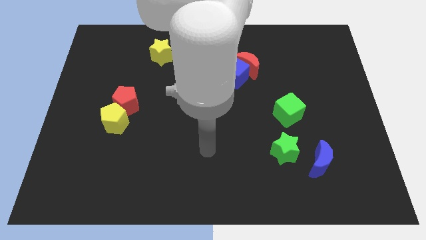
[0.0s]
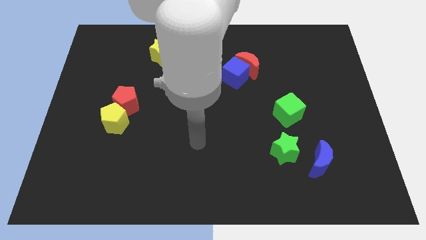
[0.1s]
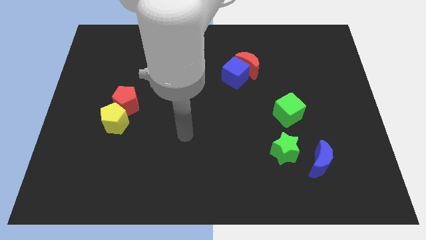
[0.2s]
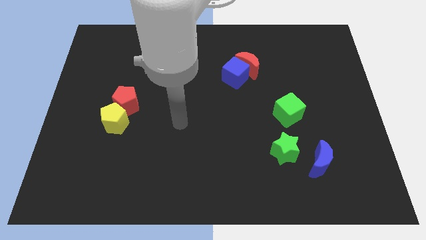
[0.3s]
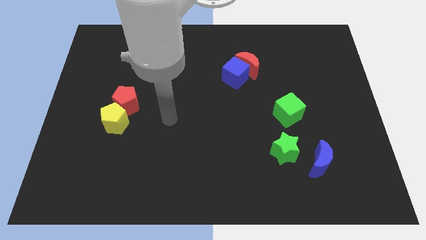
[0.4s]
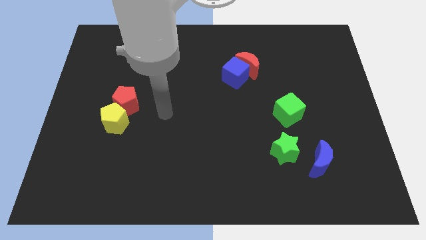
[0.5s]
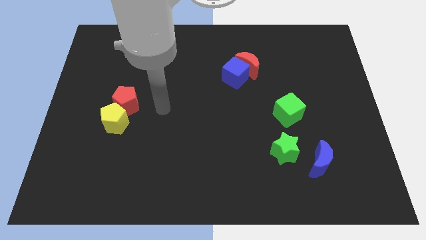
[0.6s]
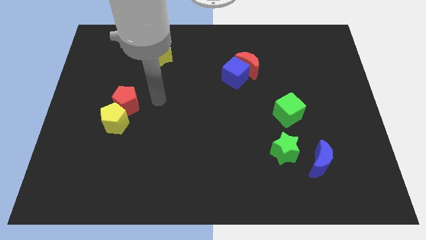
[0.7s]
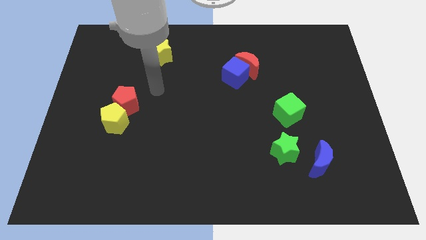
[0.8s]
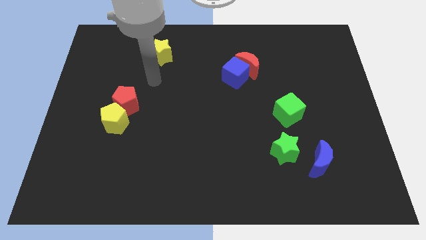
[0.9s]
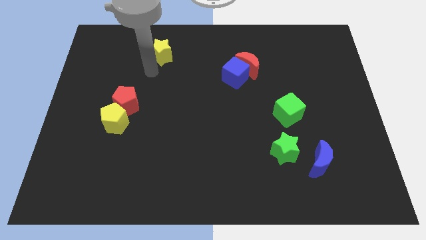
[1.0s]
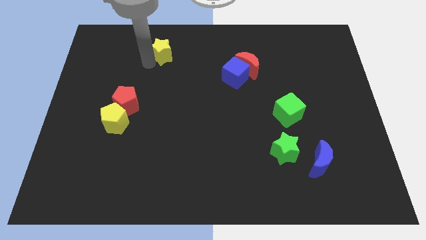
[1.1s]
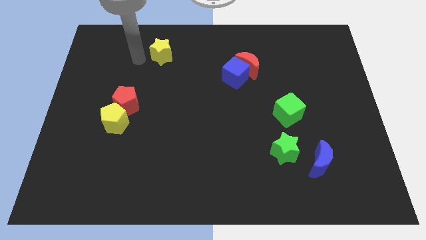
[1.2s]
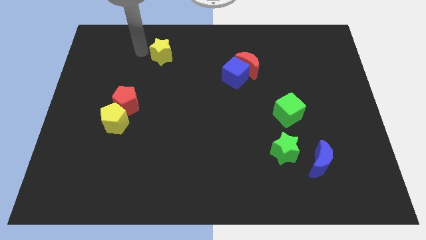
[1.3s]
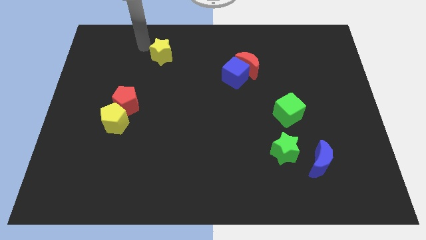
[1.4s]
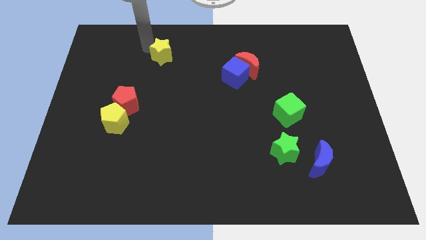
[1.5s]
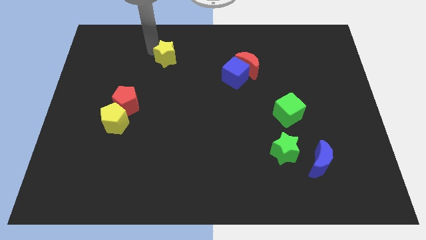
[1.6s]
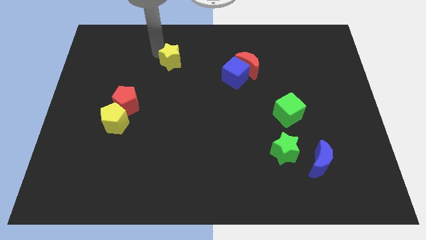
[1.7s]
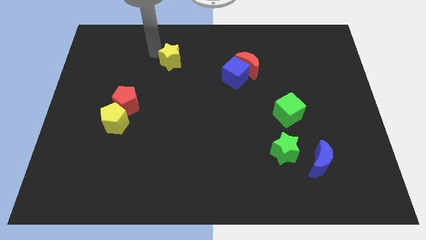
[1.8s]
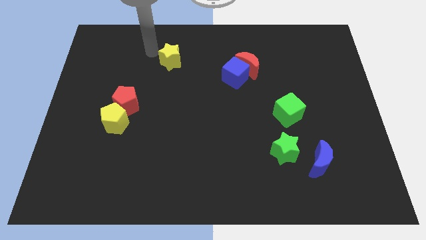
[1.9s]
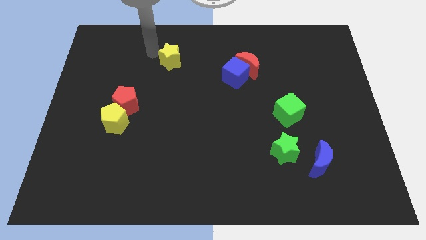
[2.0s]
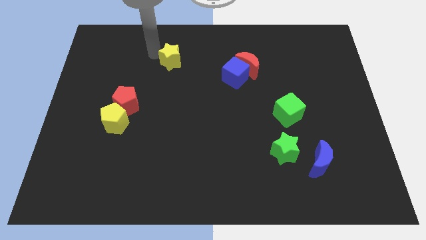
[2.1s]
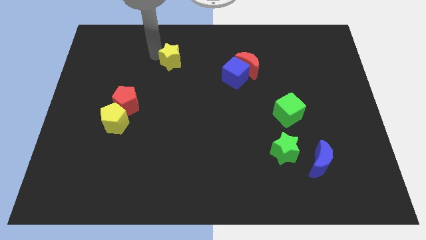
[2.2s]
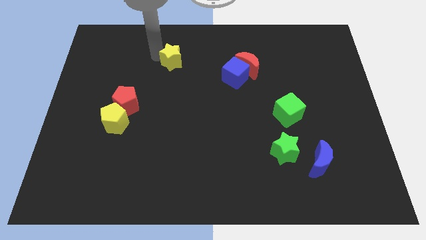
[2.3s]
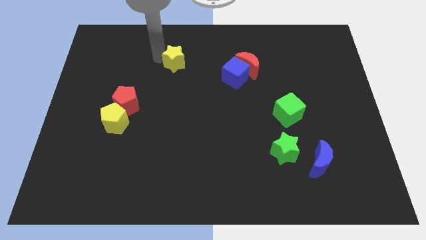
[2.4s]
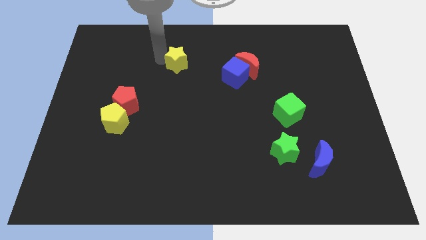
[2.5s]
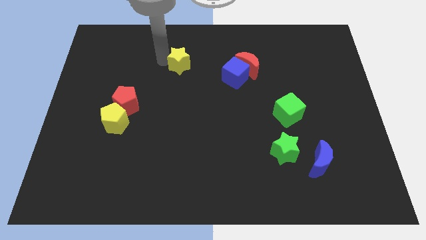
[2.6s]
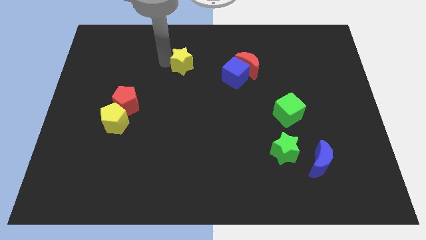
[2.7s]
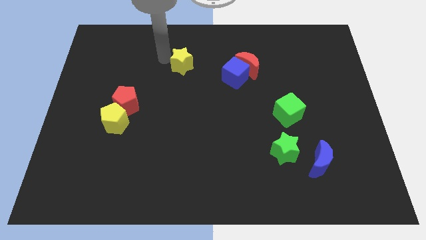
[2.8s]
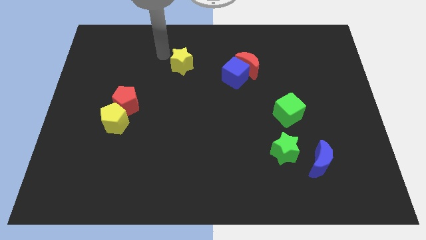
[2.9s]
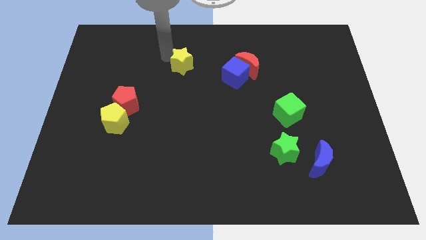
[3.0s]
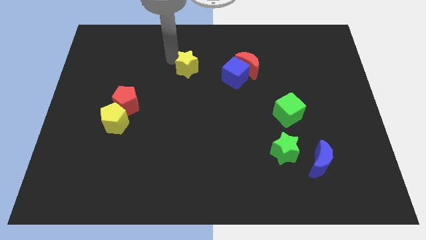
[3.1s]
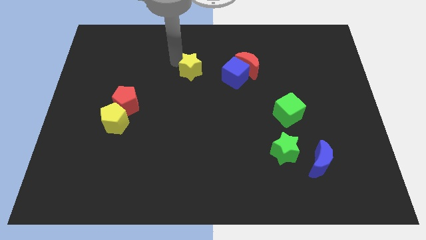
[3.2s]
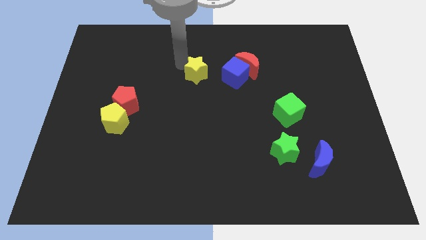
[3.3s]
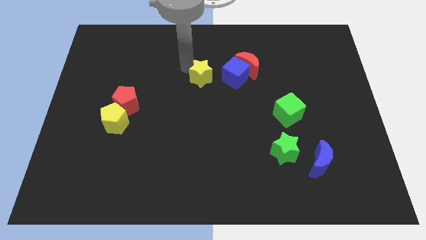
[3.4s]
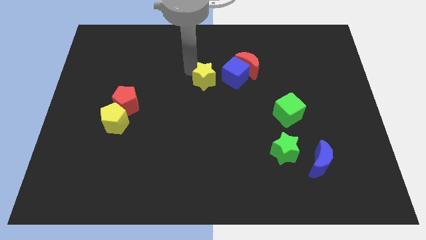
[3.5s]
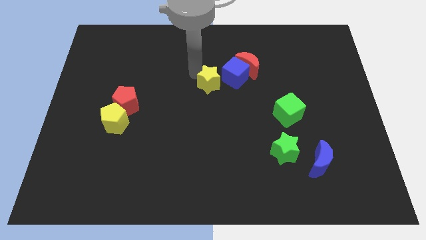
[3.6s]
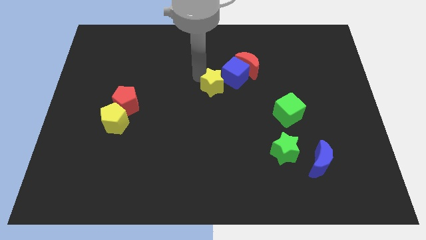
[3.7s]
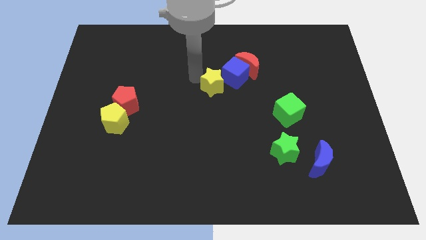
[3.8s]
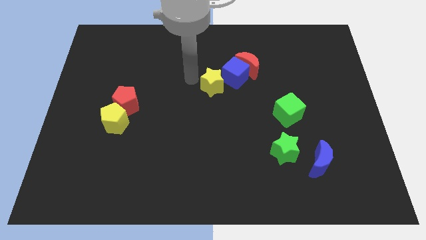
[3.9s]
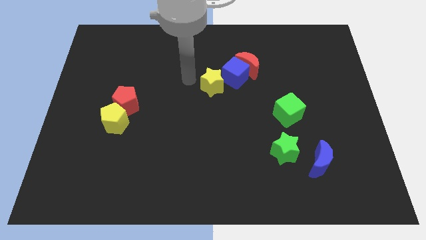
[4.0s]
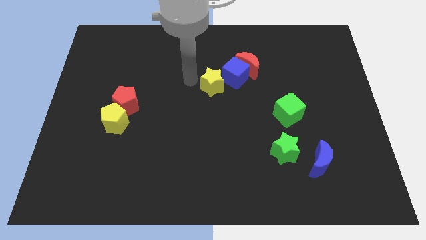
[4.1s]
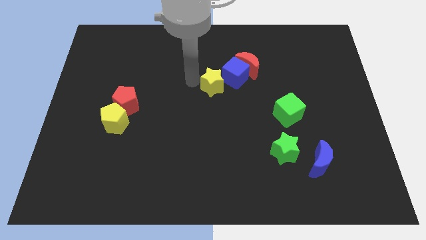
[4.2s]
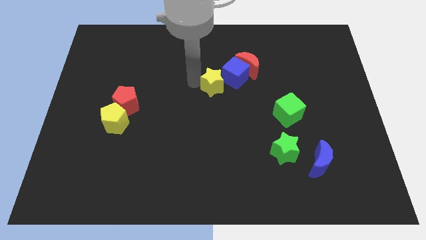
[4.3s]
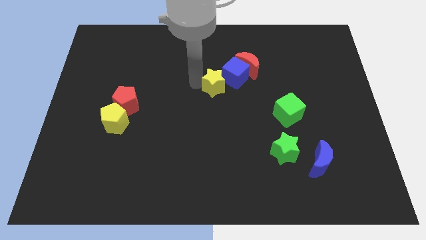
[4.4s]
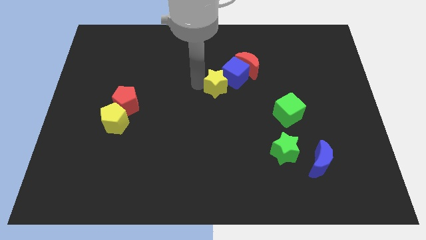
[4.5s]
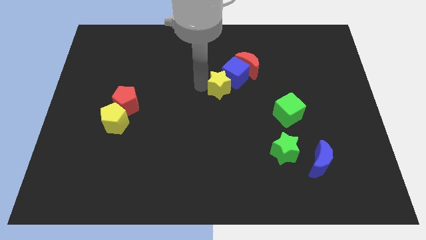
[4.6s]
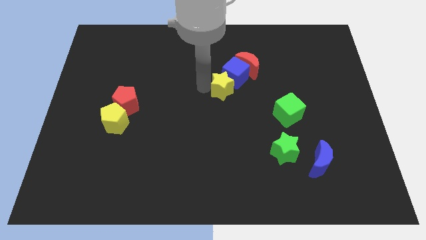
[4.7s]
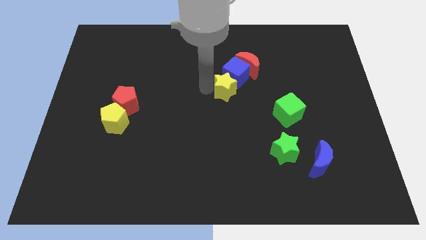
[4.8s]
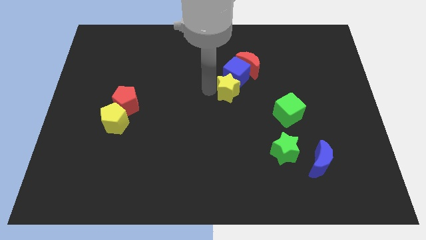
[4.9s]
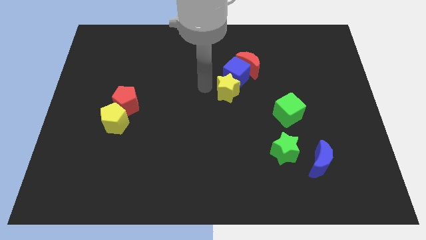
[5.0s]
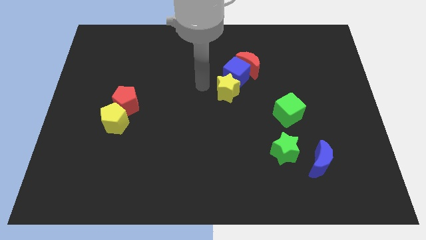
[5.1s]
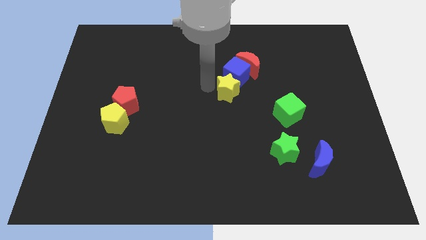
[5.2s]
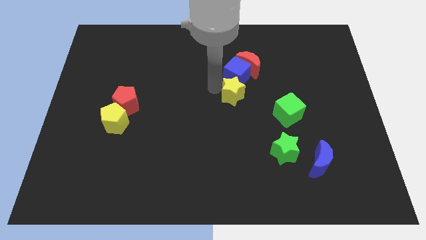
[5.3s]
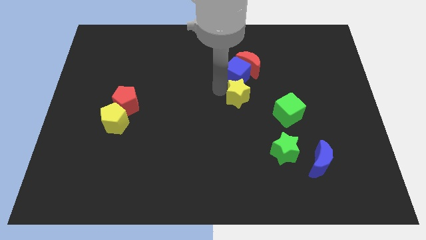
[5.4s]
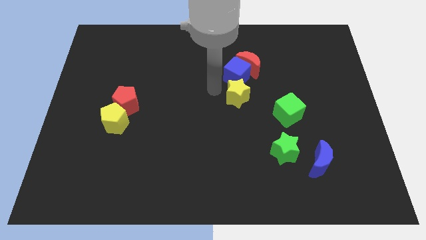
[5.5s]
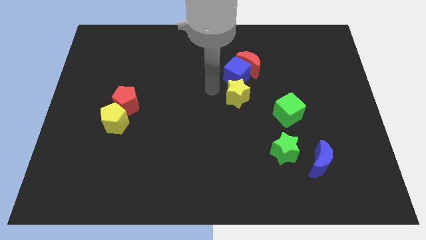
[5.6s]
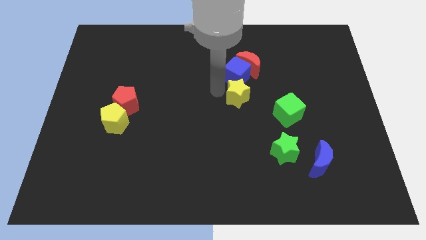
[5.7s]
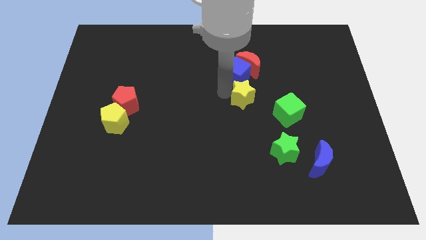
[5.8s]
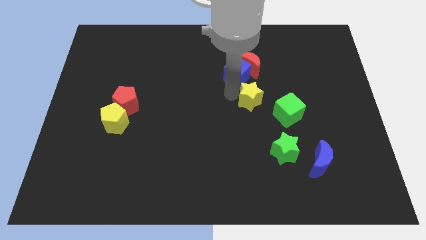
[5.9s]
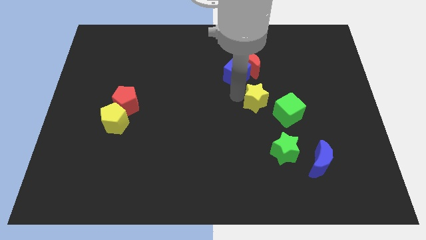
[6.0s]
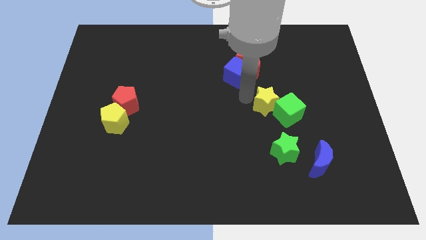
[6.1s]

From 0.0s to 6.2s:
put the yellow star close to the green cube

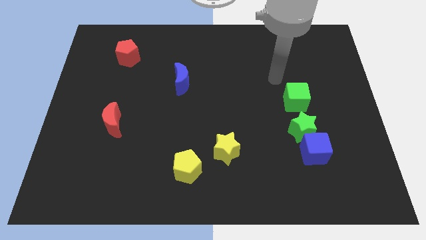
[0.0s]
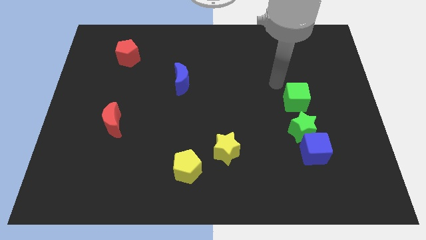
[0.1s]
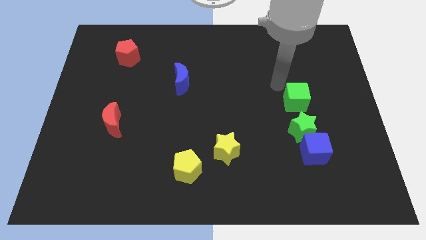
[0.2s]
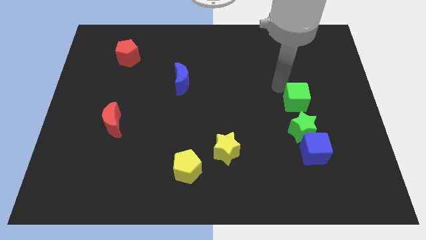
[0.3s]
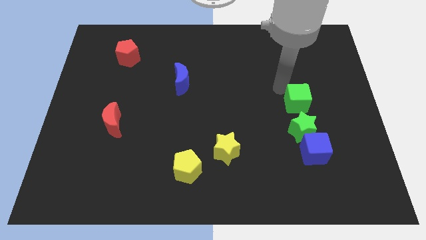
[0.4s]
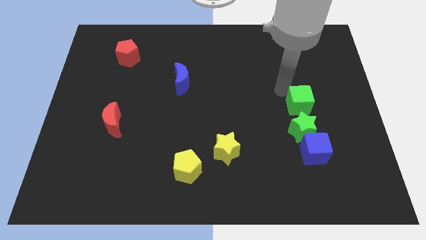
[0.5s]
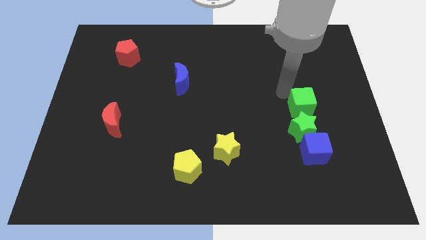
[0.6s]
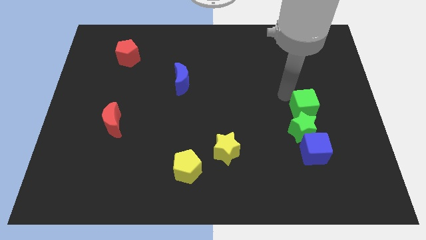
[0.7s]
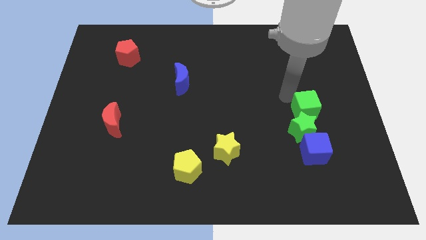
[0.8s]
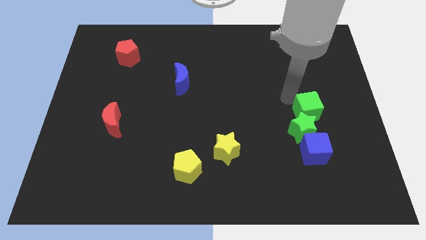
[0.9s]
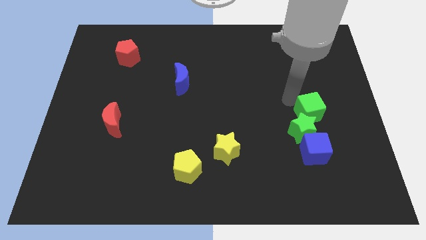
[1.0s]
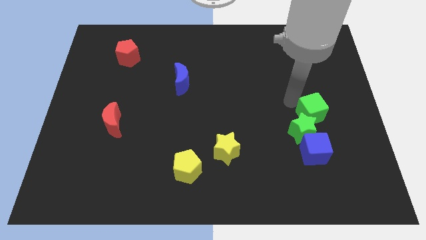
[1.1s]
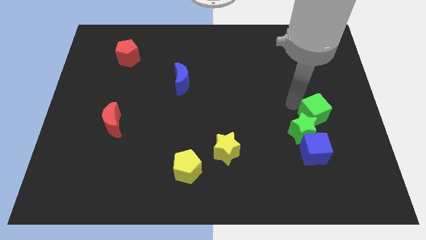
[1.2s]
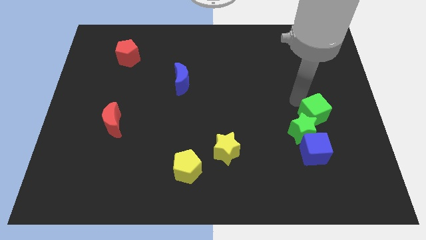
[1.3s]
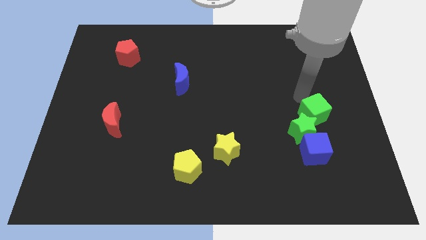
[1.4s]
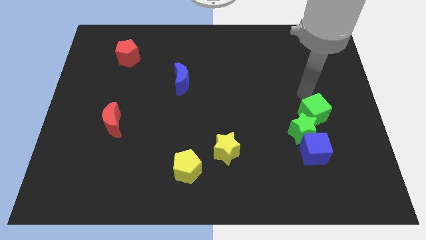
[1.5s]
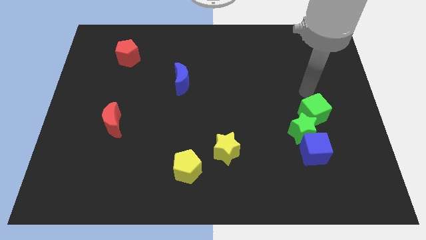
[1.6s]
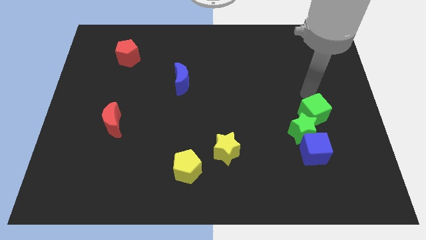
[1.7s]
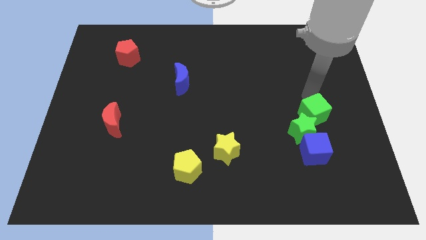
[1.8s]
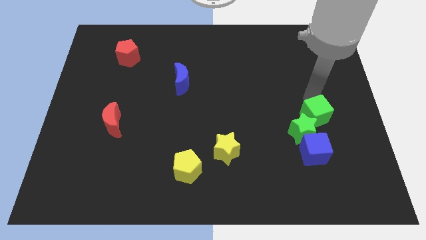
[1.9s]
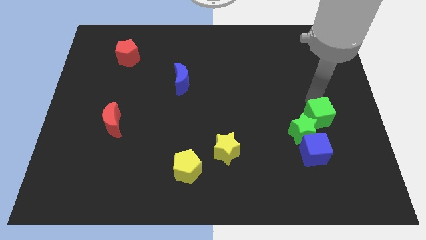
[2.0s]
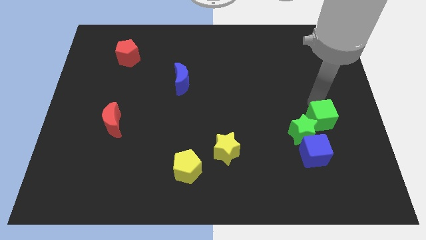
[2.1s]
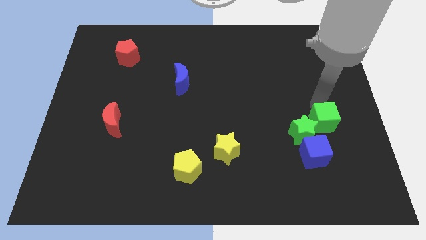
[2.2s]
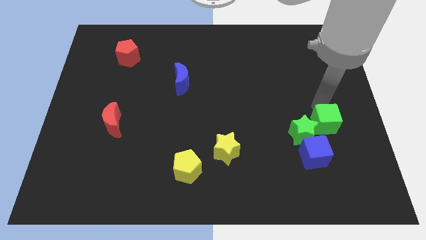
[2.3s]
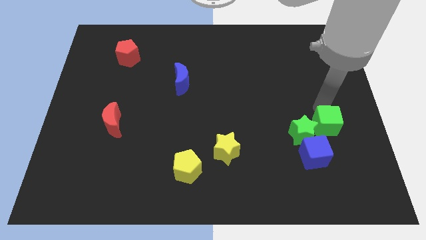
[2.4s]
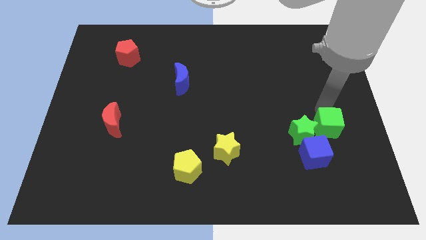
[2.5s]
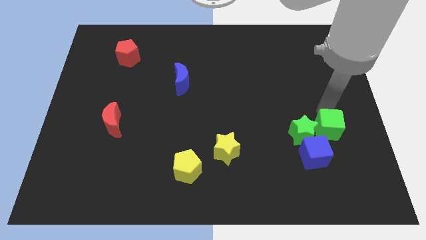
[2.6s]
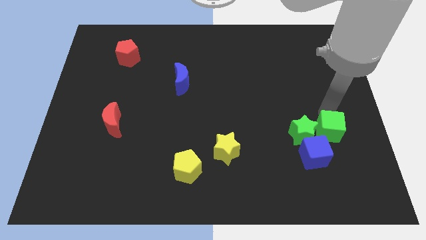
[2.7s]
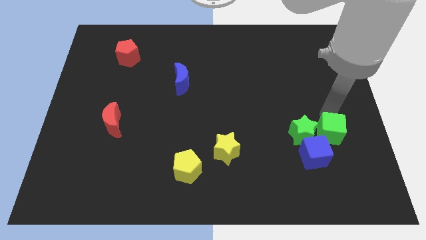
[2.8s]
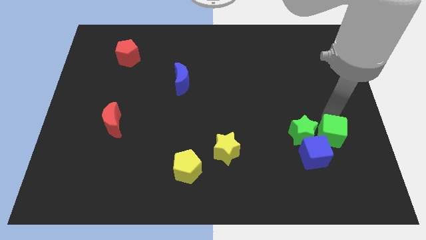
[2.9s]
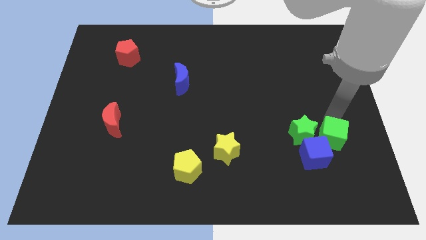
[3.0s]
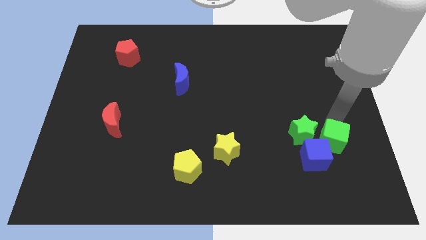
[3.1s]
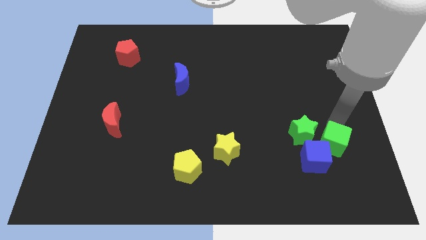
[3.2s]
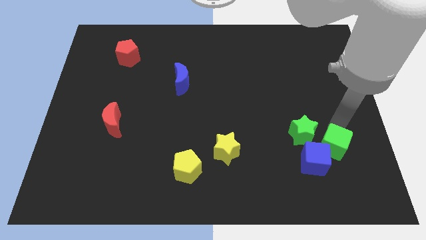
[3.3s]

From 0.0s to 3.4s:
move the green cube towards the blue cube
